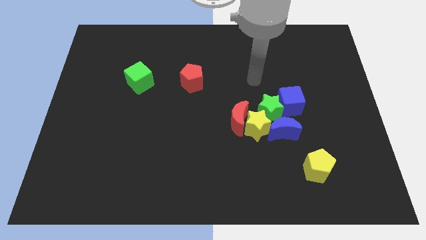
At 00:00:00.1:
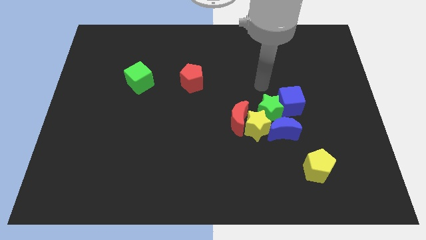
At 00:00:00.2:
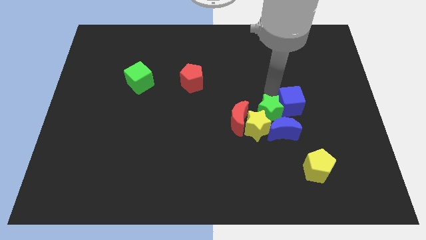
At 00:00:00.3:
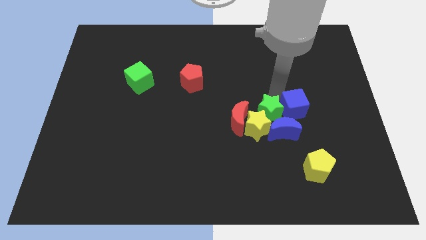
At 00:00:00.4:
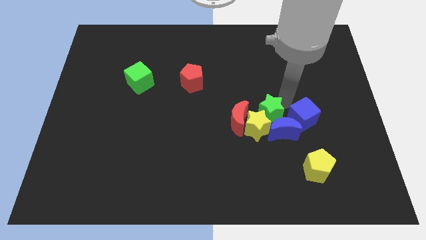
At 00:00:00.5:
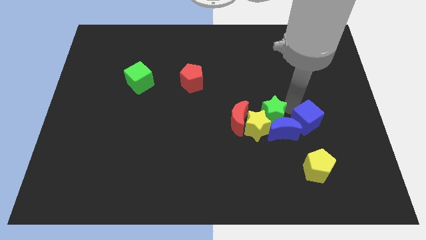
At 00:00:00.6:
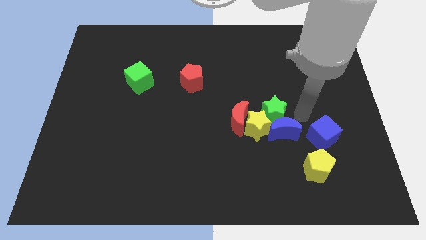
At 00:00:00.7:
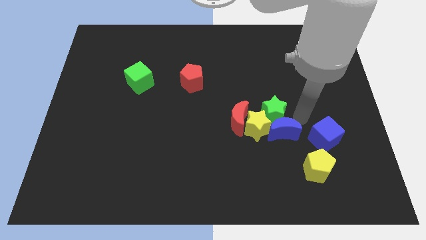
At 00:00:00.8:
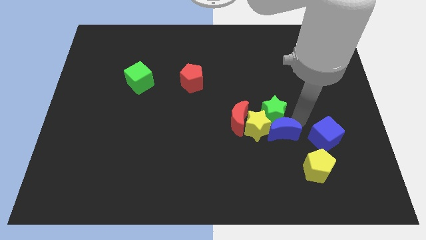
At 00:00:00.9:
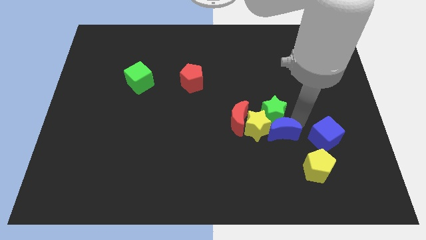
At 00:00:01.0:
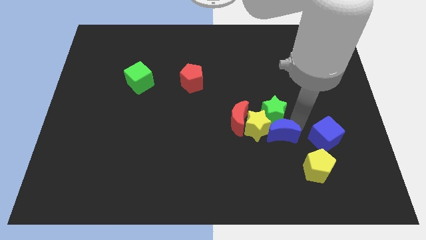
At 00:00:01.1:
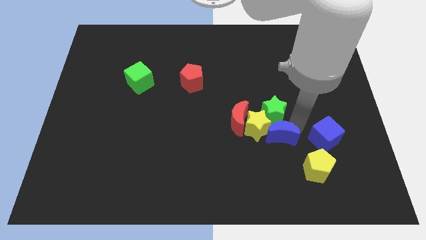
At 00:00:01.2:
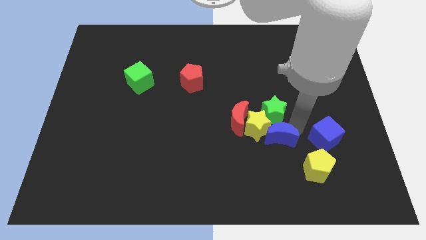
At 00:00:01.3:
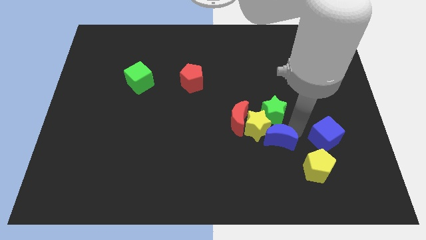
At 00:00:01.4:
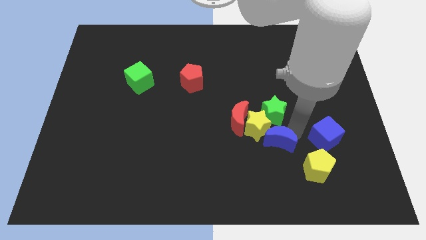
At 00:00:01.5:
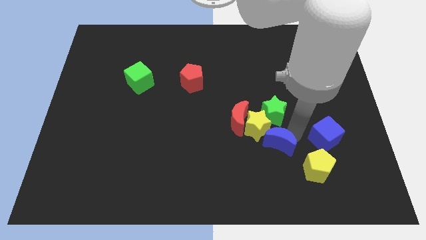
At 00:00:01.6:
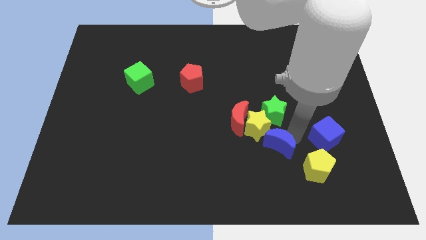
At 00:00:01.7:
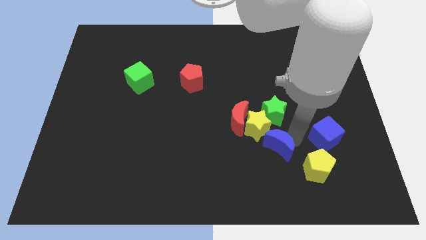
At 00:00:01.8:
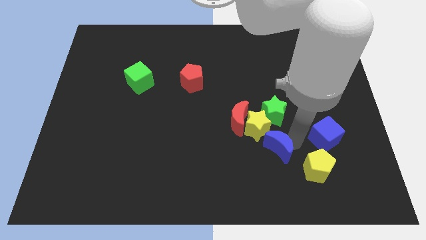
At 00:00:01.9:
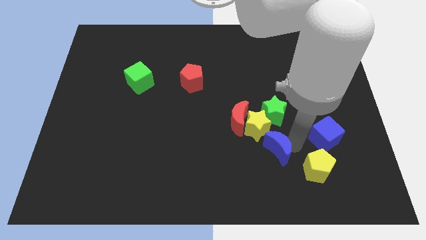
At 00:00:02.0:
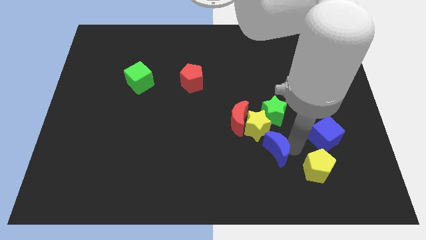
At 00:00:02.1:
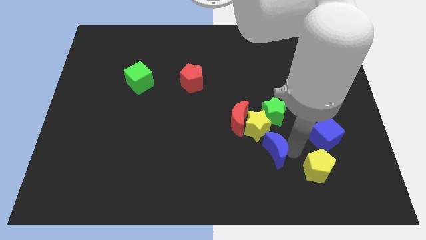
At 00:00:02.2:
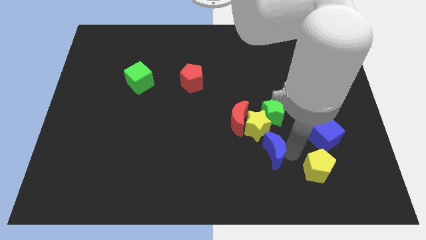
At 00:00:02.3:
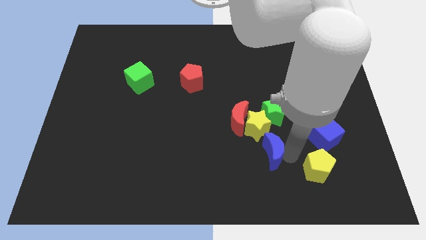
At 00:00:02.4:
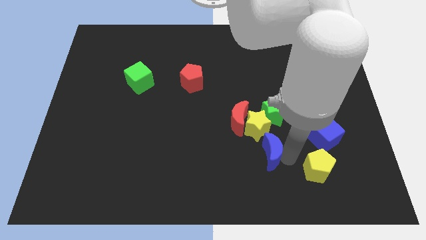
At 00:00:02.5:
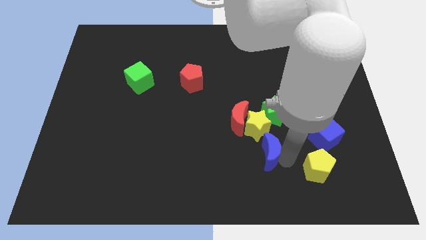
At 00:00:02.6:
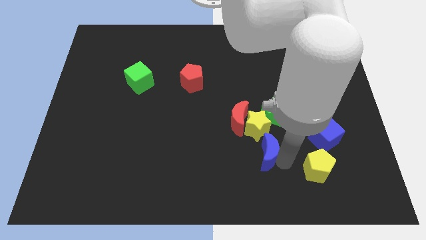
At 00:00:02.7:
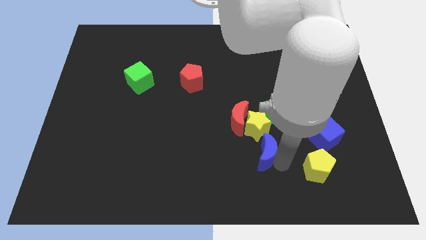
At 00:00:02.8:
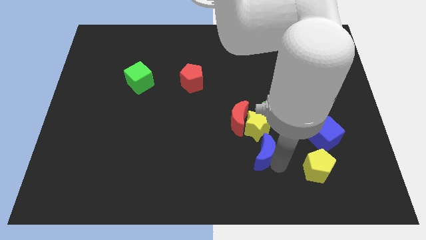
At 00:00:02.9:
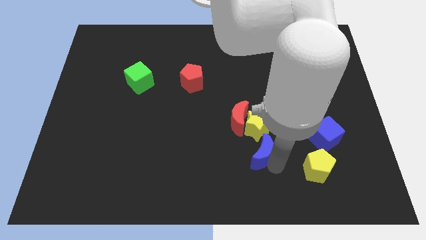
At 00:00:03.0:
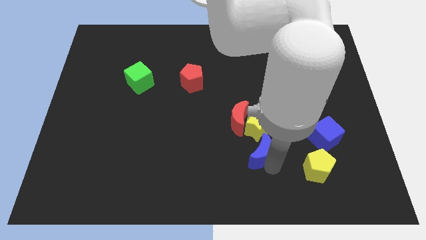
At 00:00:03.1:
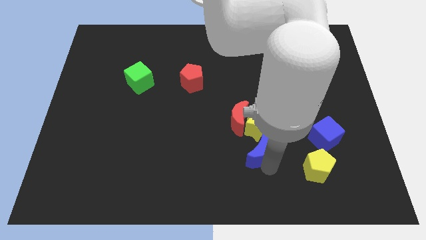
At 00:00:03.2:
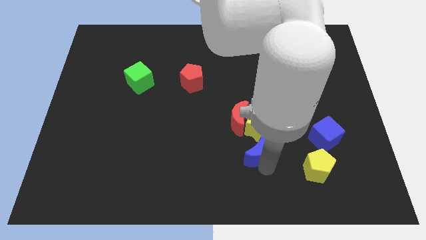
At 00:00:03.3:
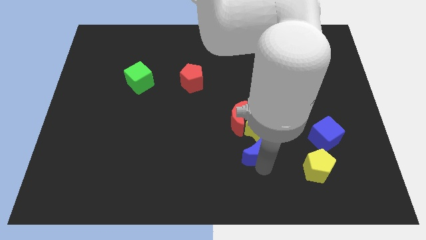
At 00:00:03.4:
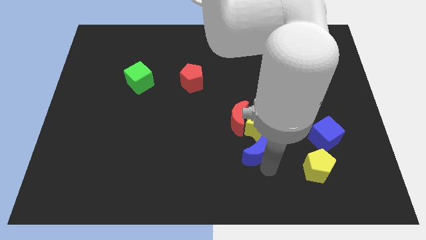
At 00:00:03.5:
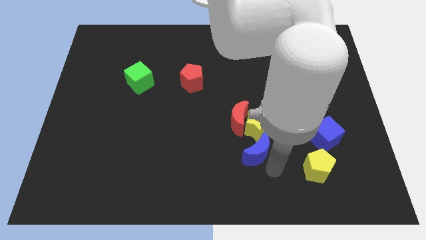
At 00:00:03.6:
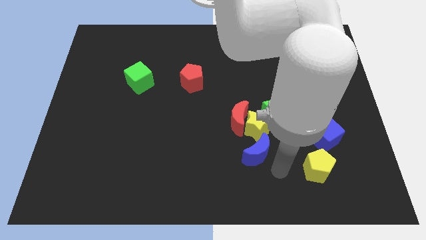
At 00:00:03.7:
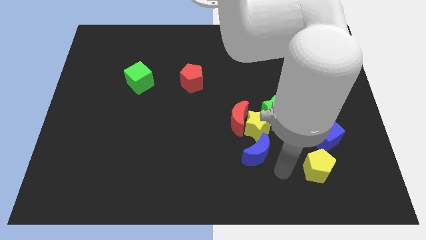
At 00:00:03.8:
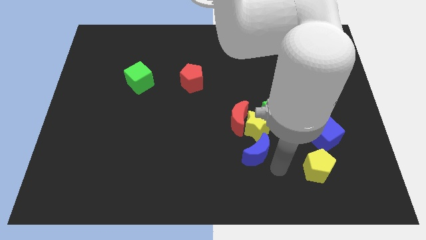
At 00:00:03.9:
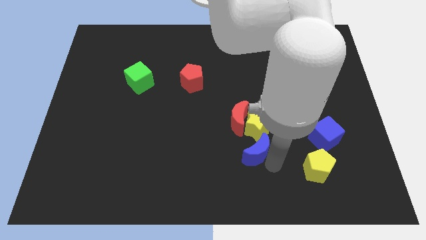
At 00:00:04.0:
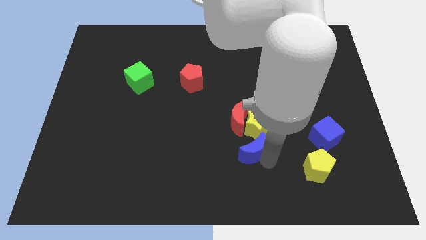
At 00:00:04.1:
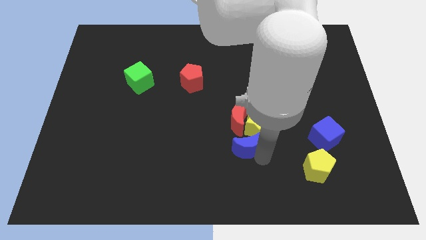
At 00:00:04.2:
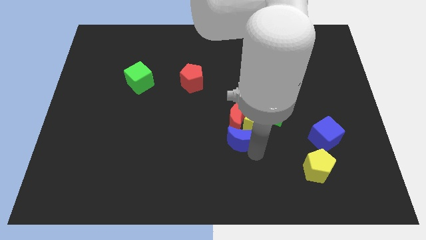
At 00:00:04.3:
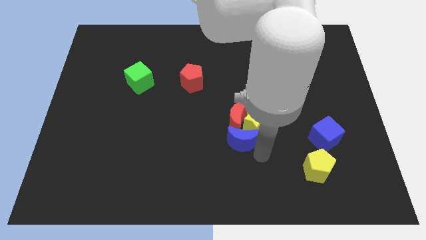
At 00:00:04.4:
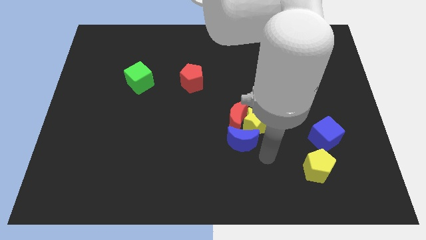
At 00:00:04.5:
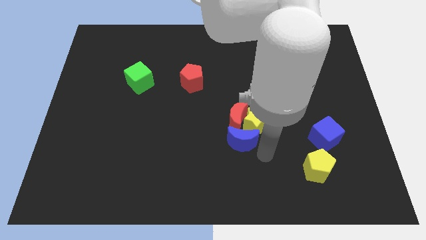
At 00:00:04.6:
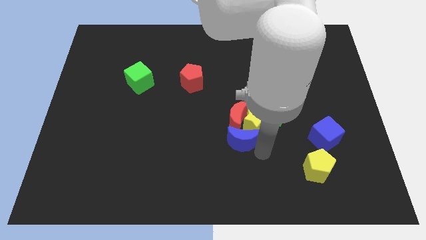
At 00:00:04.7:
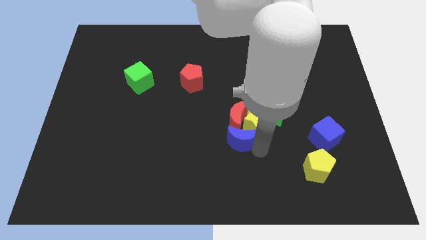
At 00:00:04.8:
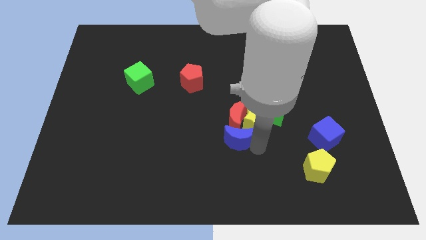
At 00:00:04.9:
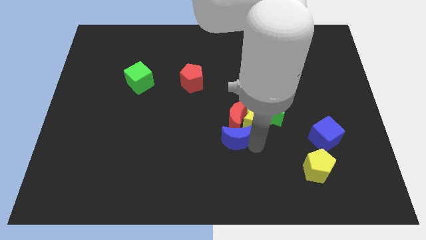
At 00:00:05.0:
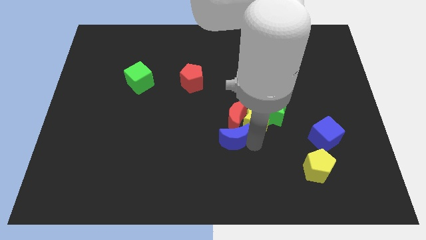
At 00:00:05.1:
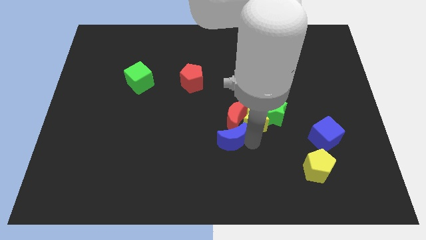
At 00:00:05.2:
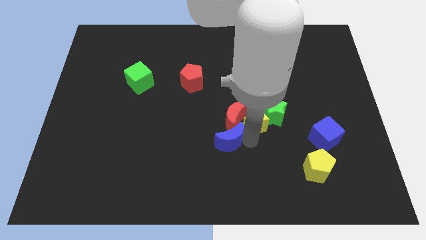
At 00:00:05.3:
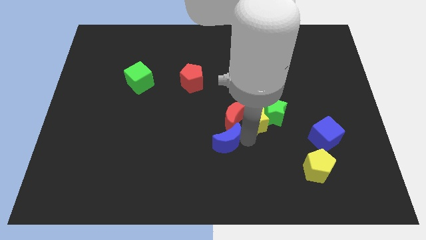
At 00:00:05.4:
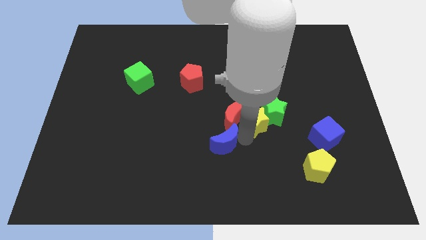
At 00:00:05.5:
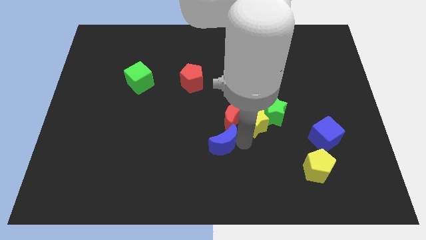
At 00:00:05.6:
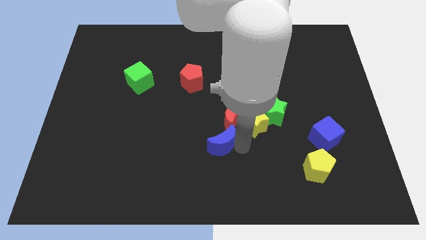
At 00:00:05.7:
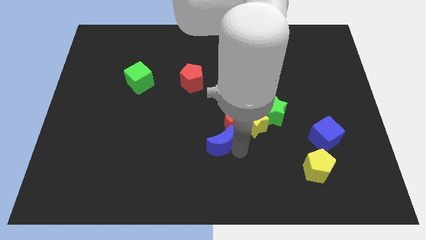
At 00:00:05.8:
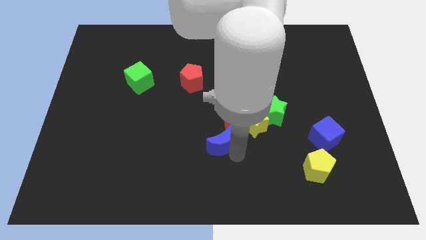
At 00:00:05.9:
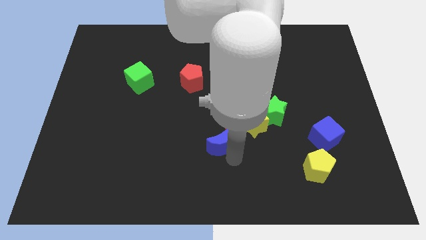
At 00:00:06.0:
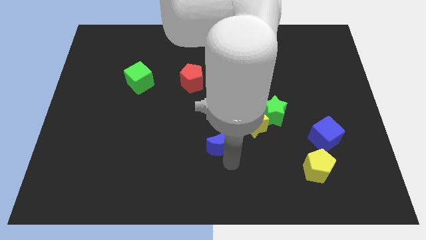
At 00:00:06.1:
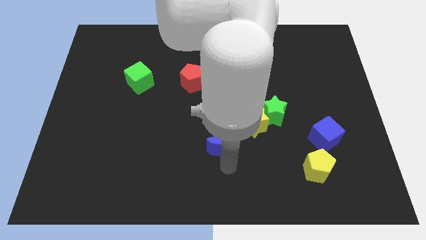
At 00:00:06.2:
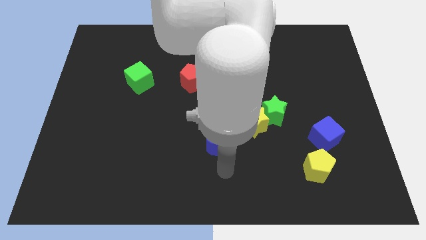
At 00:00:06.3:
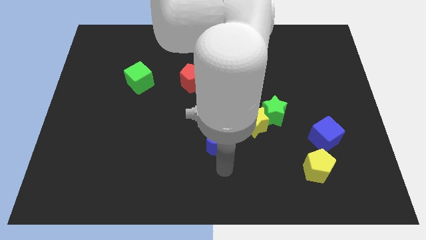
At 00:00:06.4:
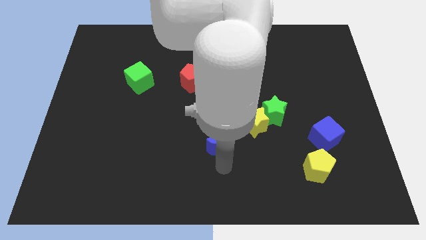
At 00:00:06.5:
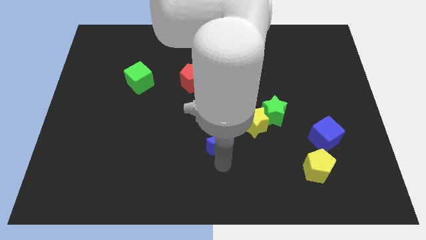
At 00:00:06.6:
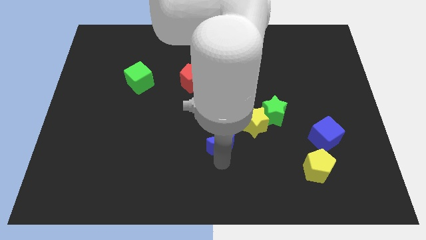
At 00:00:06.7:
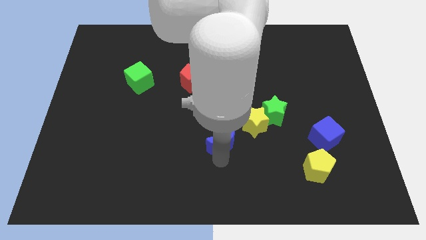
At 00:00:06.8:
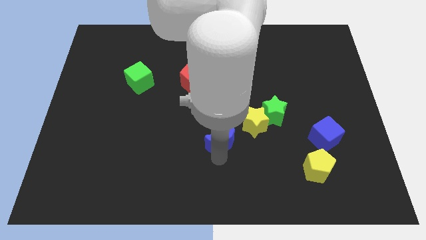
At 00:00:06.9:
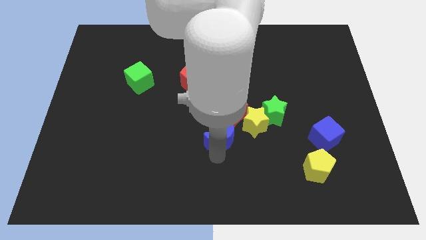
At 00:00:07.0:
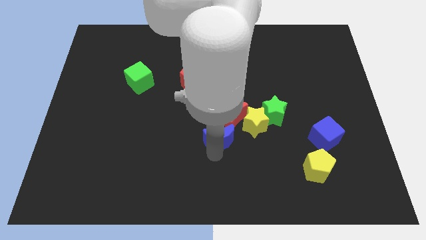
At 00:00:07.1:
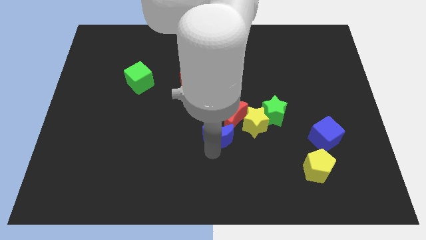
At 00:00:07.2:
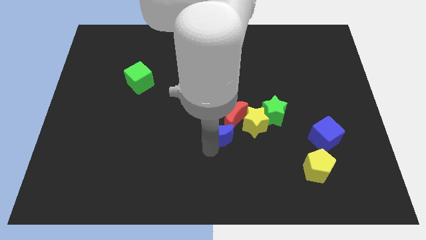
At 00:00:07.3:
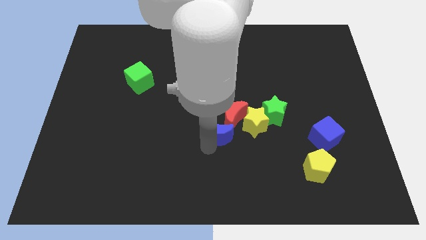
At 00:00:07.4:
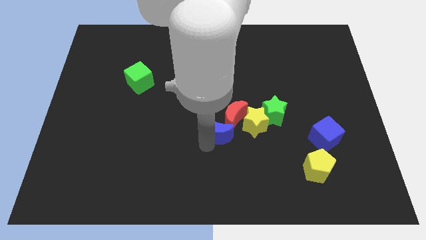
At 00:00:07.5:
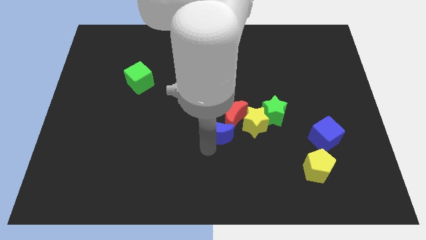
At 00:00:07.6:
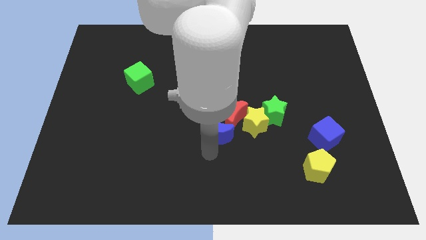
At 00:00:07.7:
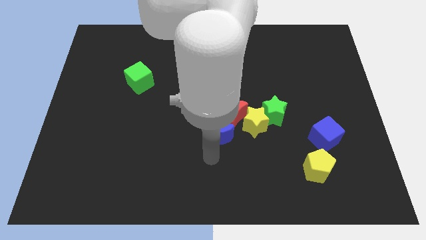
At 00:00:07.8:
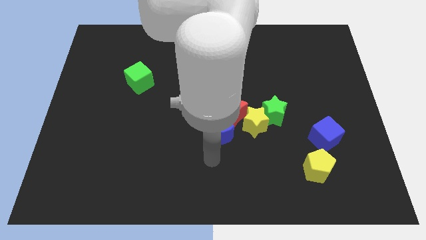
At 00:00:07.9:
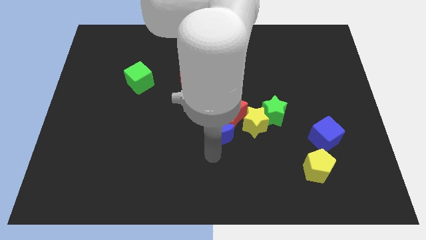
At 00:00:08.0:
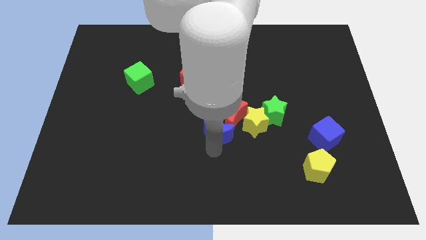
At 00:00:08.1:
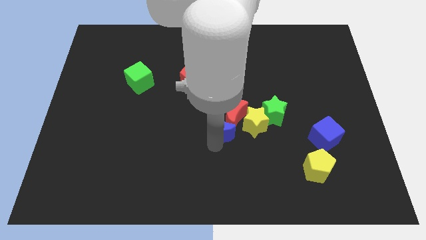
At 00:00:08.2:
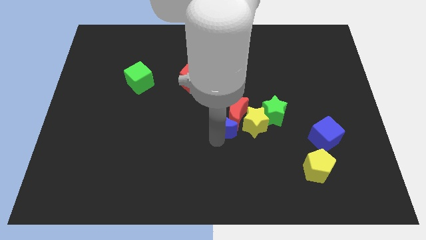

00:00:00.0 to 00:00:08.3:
slightly slide the blue moon diagonally up and to the left
